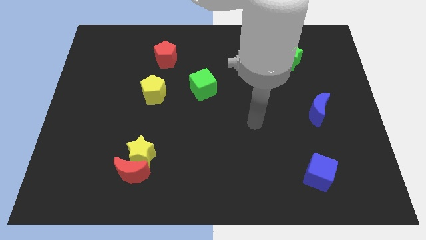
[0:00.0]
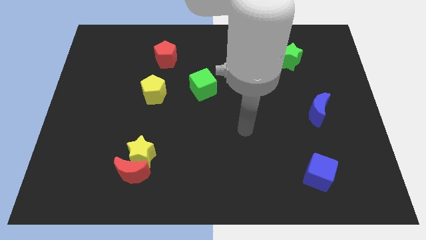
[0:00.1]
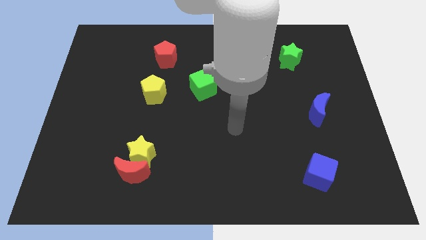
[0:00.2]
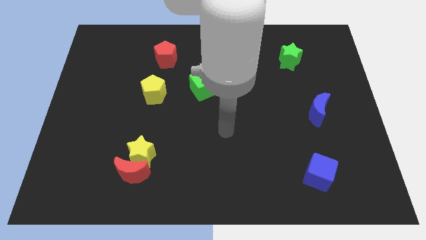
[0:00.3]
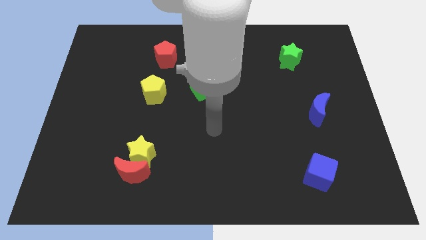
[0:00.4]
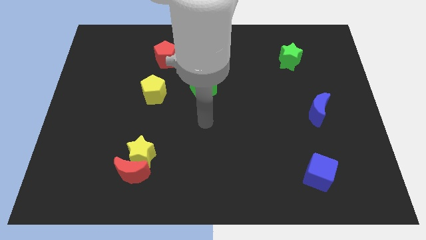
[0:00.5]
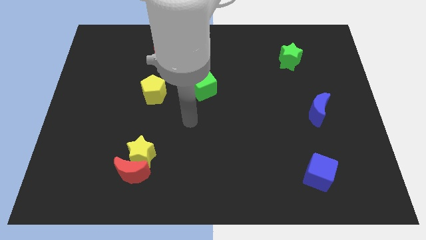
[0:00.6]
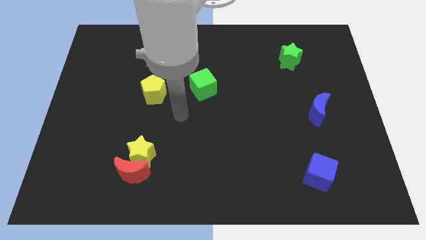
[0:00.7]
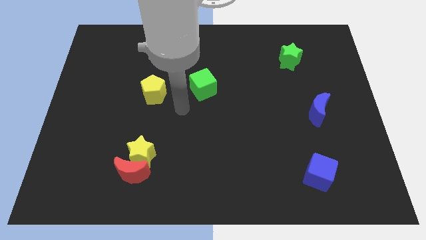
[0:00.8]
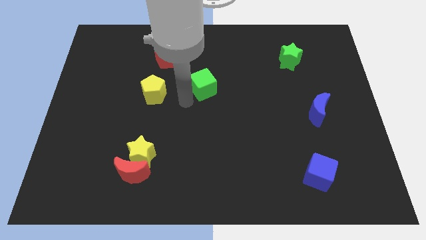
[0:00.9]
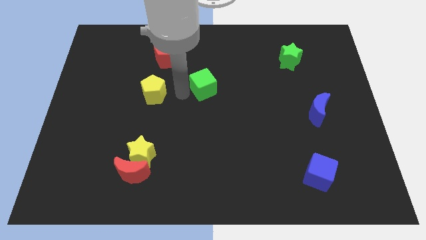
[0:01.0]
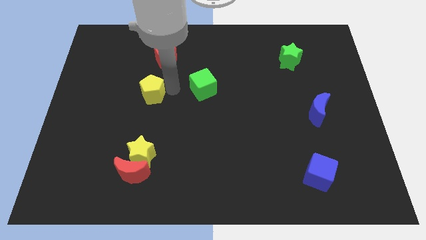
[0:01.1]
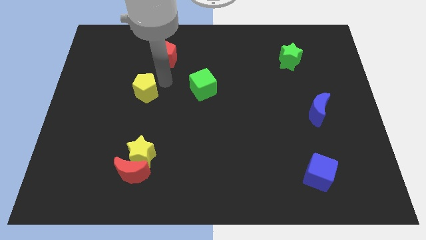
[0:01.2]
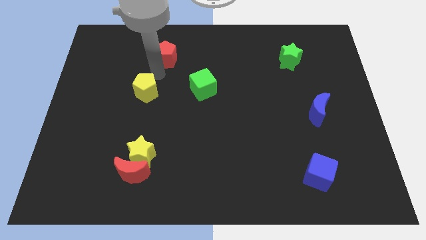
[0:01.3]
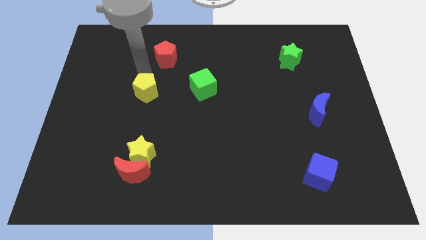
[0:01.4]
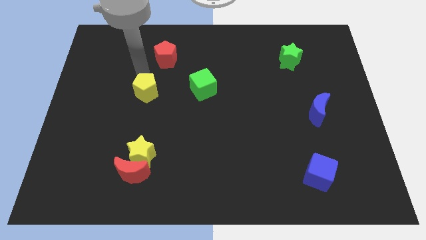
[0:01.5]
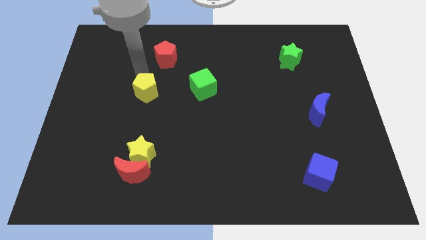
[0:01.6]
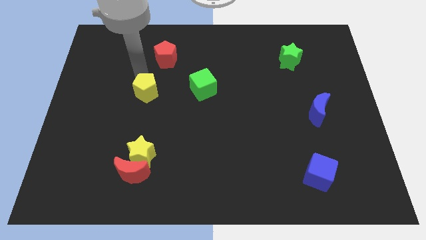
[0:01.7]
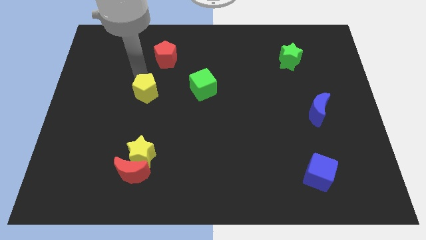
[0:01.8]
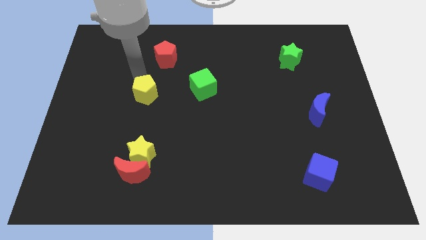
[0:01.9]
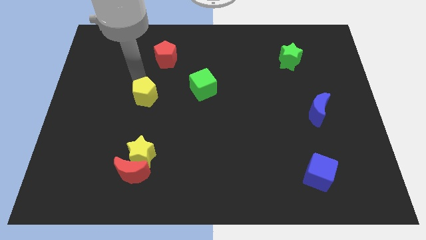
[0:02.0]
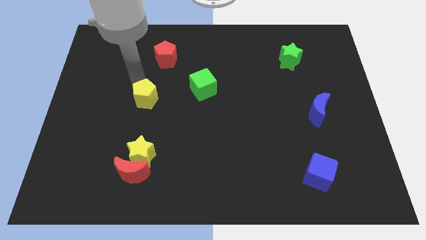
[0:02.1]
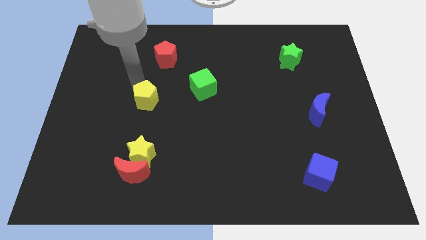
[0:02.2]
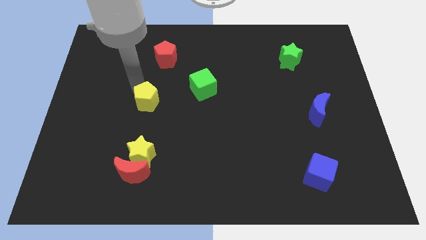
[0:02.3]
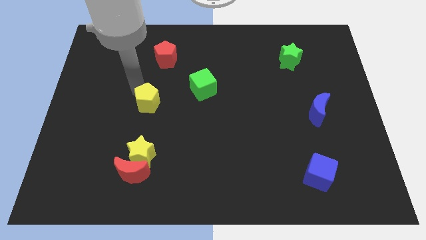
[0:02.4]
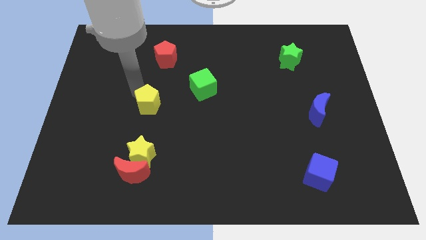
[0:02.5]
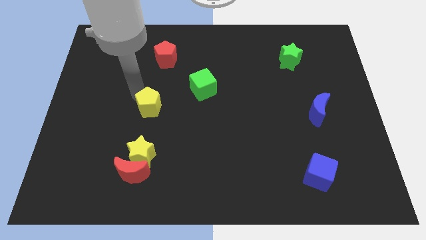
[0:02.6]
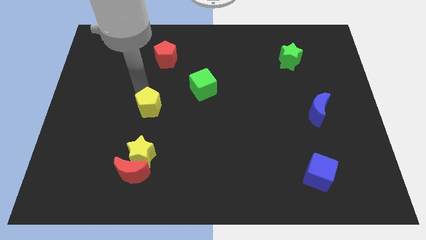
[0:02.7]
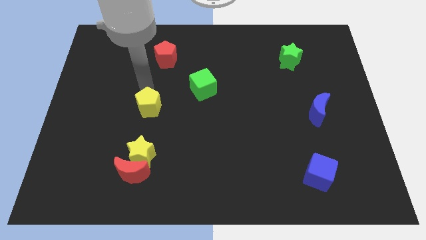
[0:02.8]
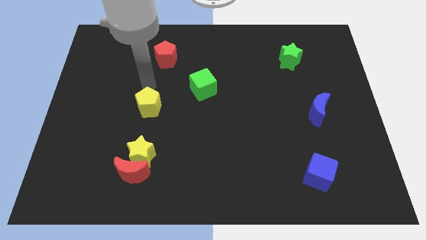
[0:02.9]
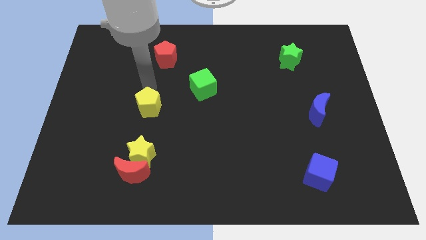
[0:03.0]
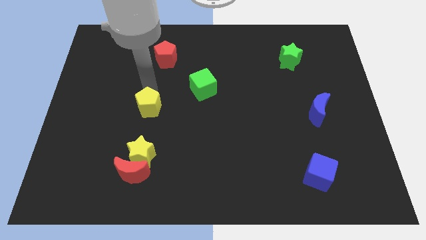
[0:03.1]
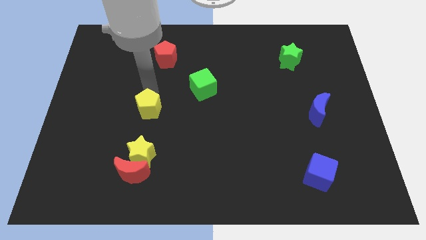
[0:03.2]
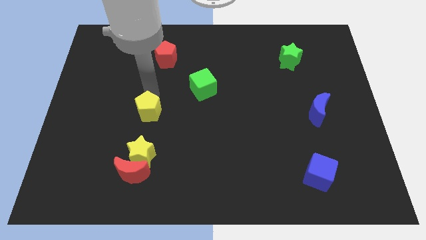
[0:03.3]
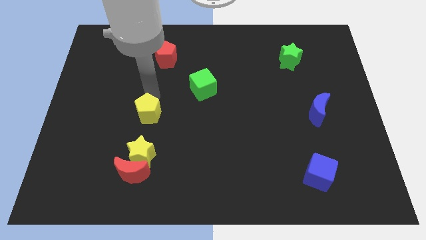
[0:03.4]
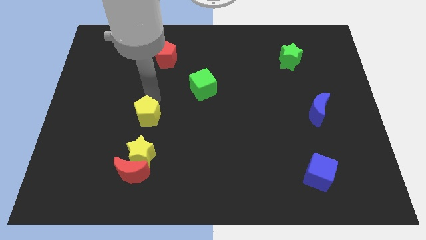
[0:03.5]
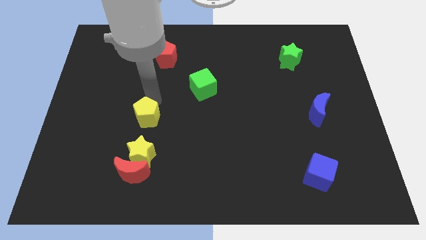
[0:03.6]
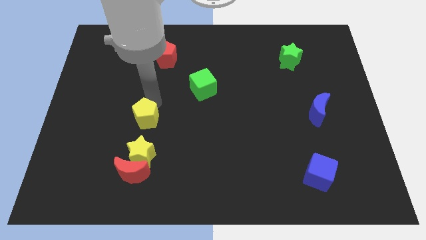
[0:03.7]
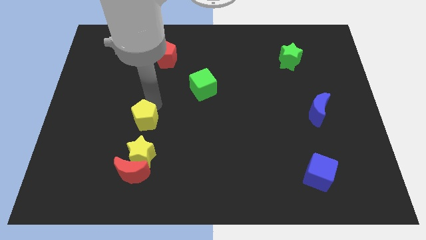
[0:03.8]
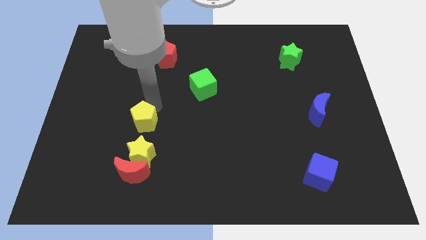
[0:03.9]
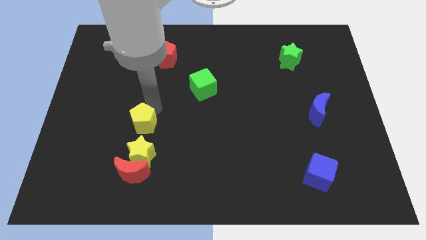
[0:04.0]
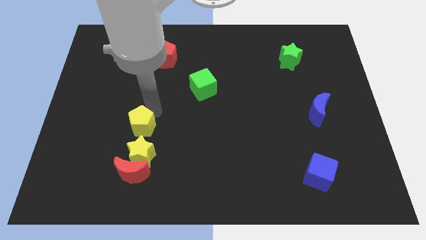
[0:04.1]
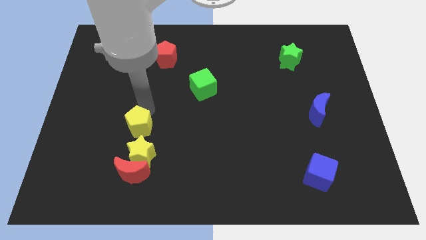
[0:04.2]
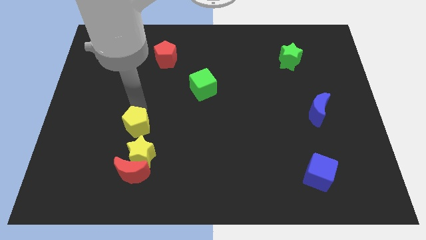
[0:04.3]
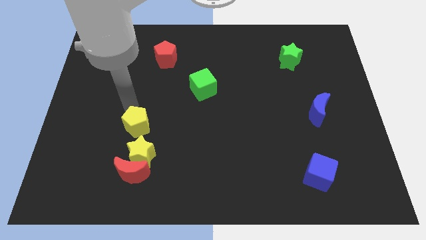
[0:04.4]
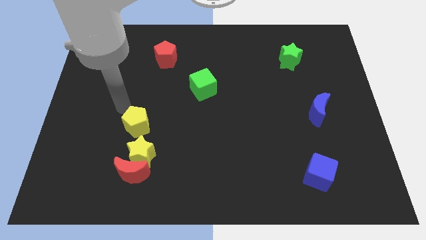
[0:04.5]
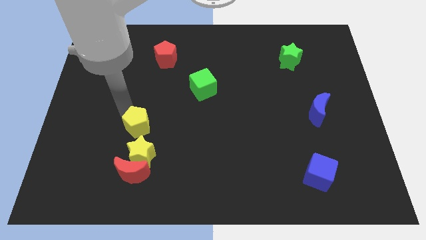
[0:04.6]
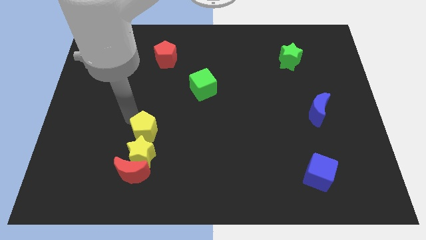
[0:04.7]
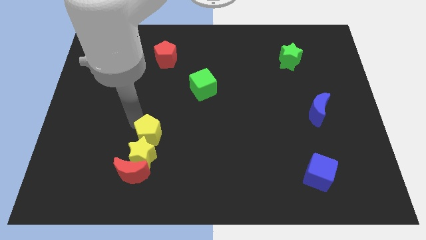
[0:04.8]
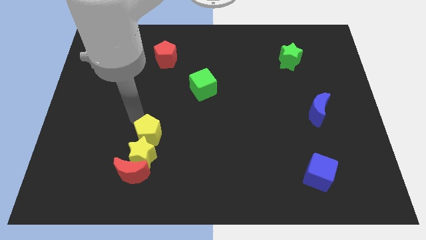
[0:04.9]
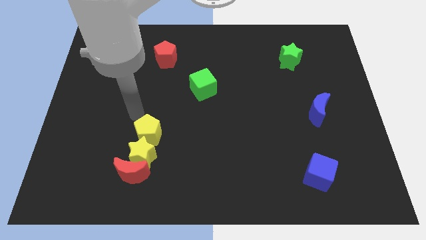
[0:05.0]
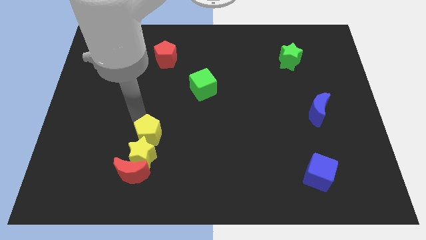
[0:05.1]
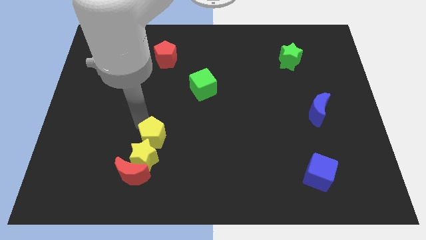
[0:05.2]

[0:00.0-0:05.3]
push the yellow pentagon diagonally up and to the right of the red moon

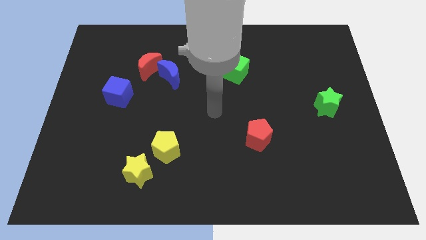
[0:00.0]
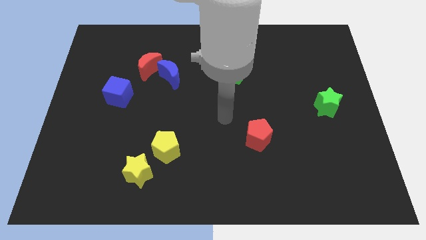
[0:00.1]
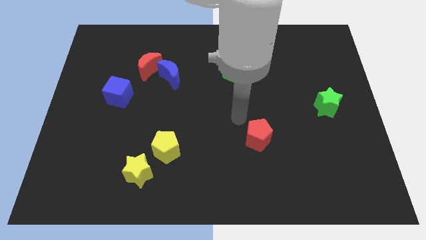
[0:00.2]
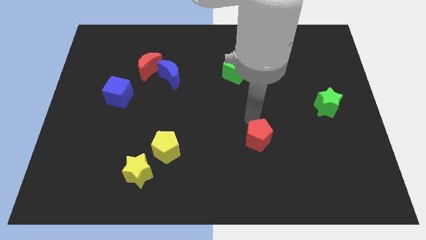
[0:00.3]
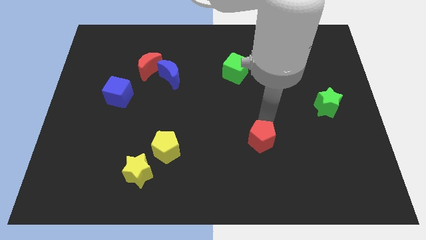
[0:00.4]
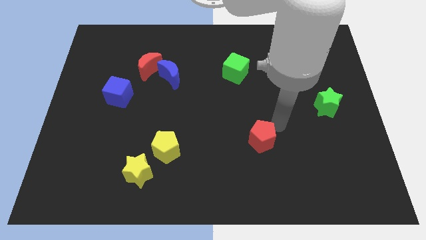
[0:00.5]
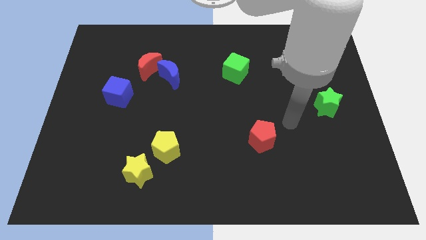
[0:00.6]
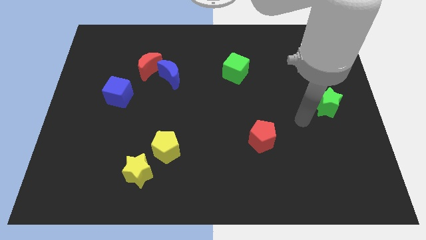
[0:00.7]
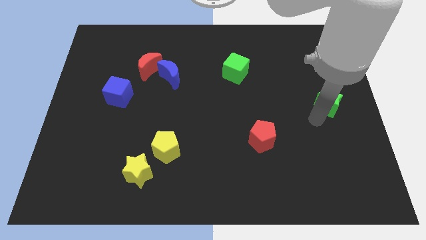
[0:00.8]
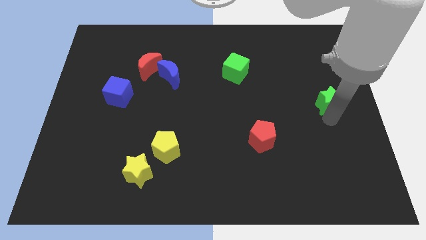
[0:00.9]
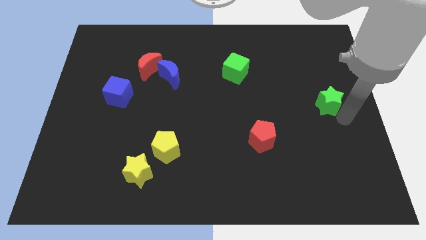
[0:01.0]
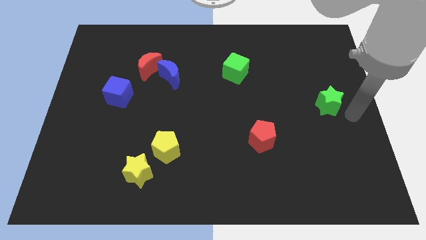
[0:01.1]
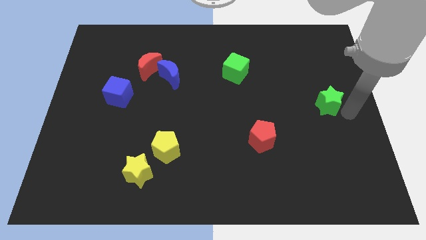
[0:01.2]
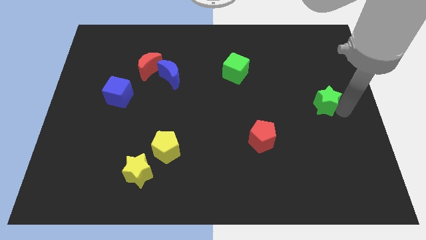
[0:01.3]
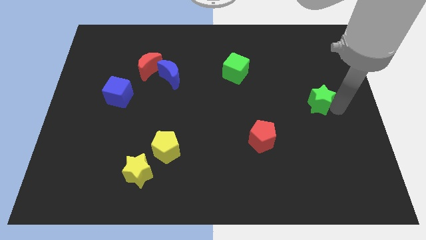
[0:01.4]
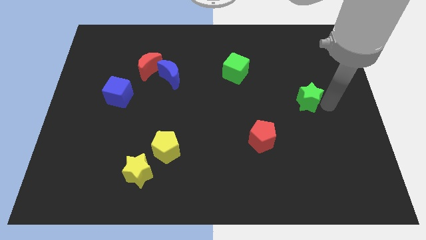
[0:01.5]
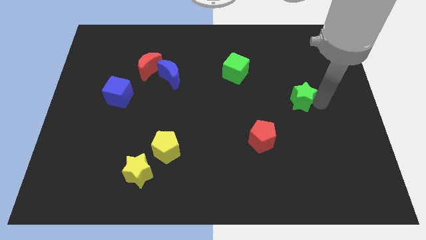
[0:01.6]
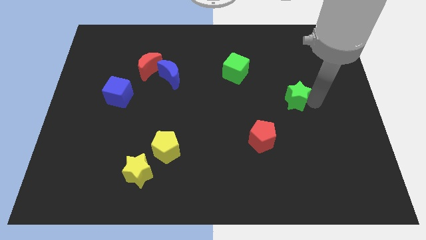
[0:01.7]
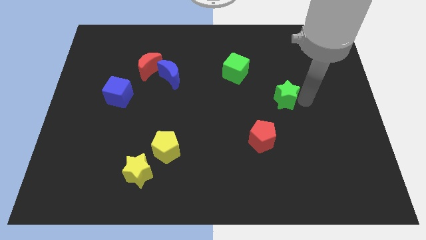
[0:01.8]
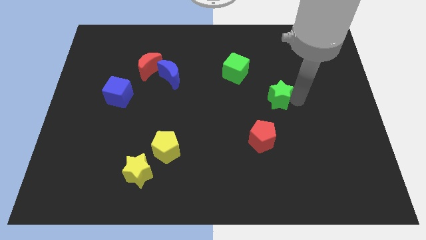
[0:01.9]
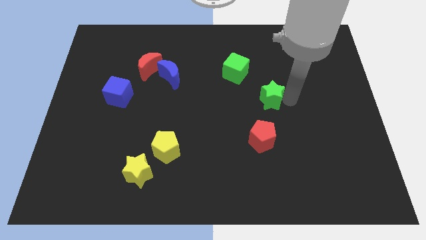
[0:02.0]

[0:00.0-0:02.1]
slide the green star to the bottom right side of the green cube
